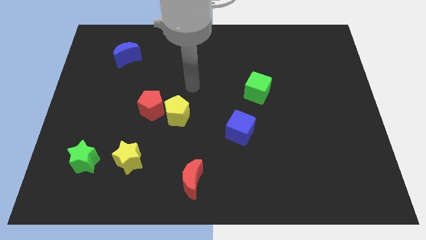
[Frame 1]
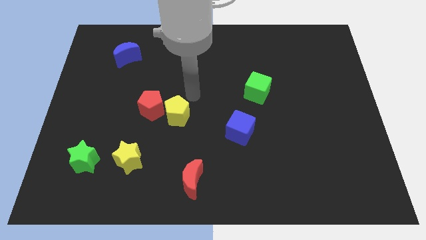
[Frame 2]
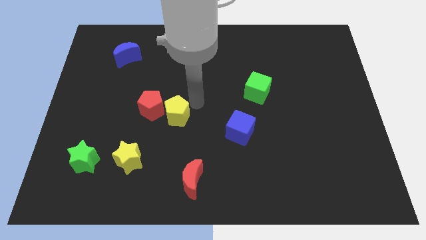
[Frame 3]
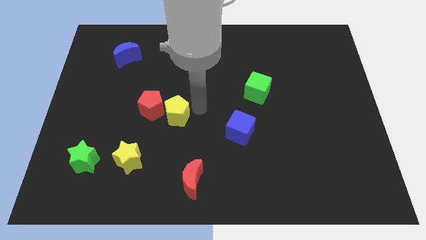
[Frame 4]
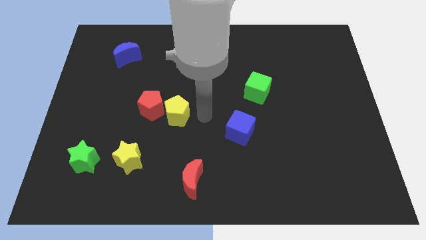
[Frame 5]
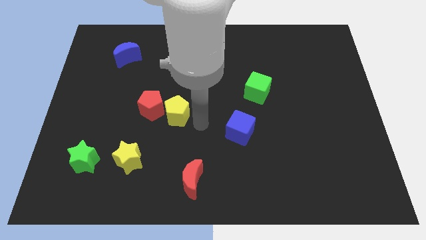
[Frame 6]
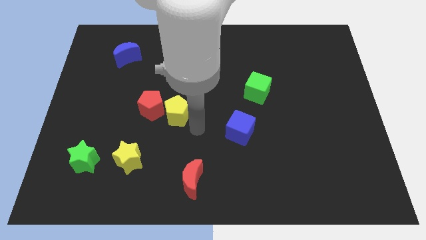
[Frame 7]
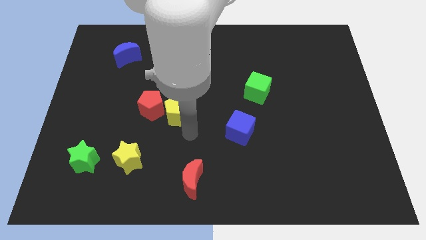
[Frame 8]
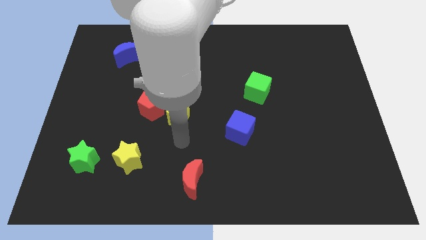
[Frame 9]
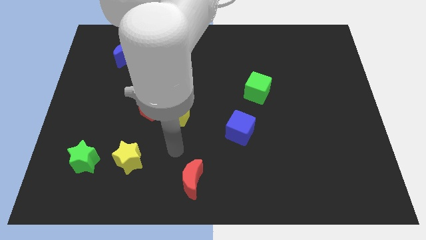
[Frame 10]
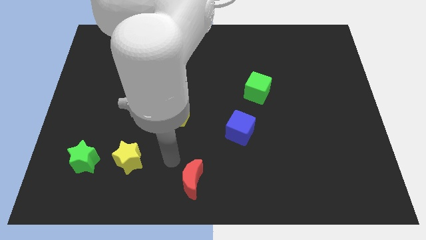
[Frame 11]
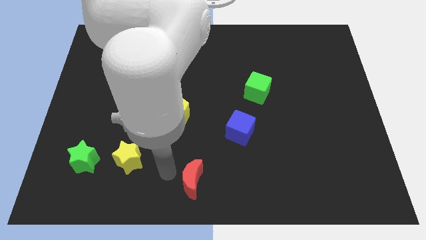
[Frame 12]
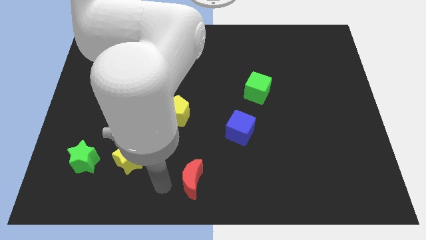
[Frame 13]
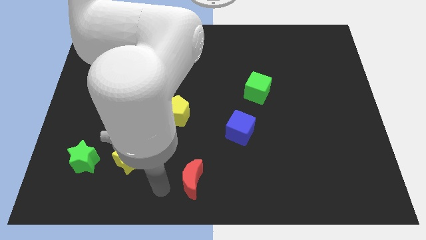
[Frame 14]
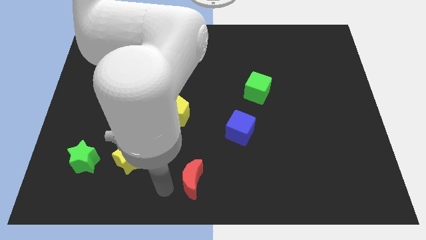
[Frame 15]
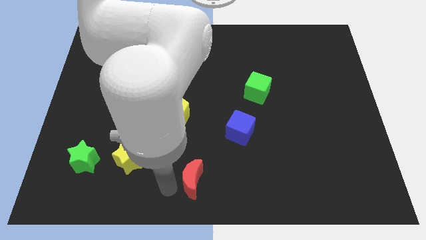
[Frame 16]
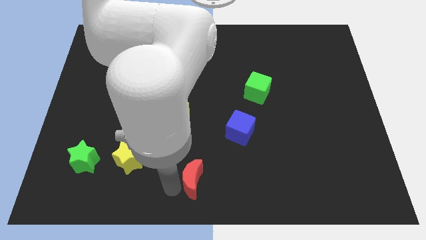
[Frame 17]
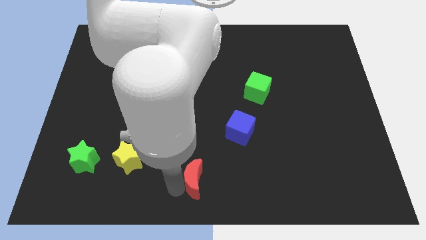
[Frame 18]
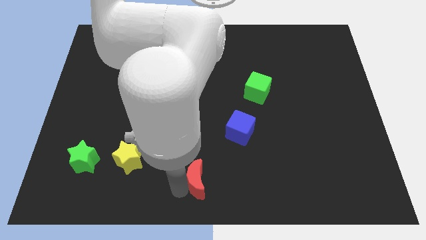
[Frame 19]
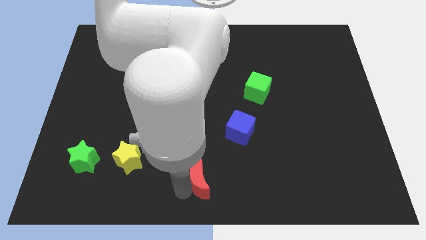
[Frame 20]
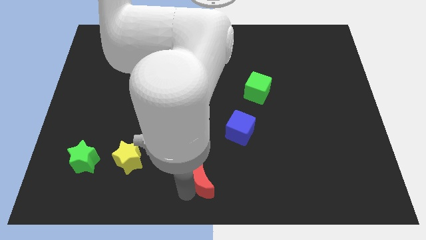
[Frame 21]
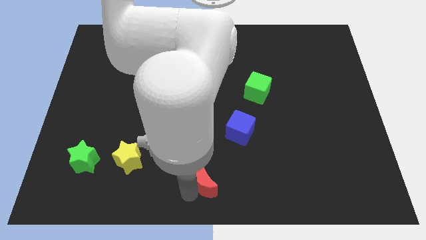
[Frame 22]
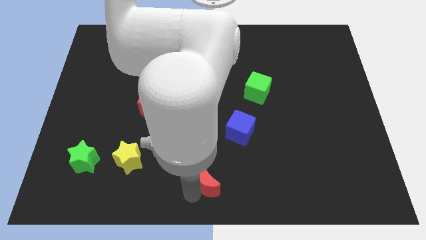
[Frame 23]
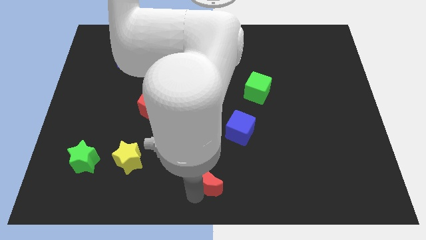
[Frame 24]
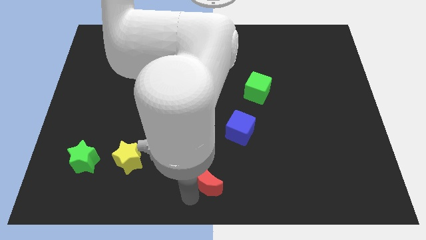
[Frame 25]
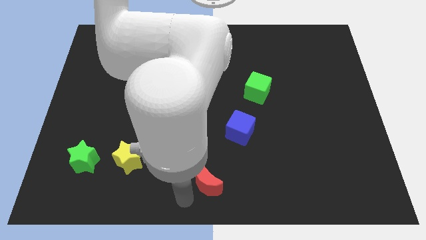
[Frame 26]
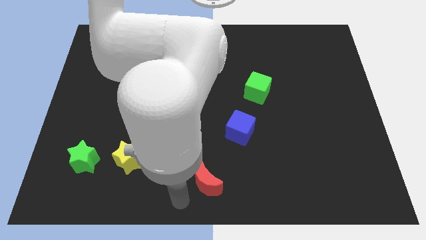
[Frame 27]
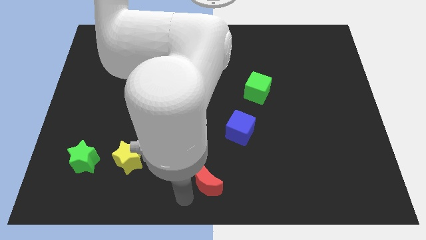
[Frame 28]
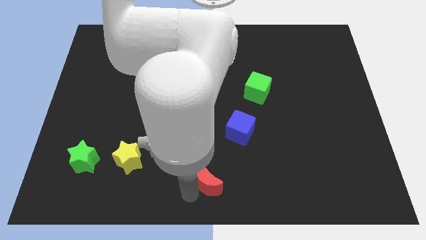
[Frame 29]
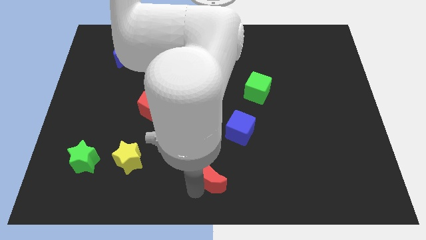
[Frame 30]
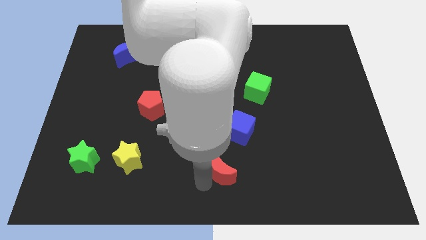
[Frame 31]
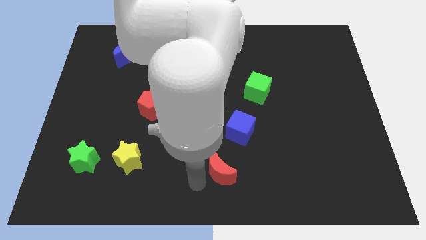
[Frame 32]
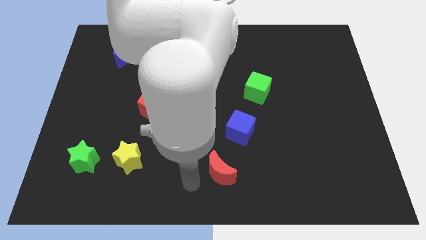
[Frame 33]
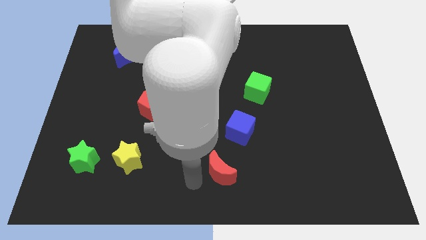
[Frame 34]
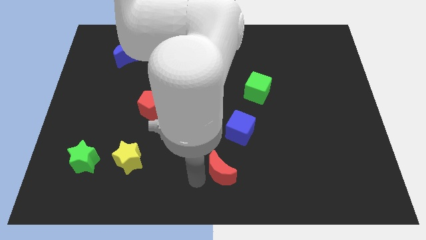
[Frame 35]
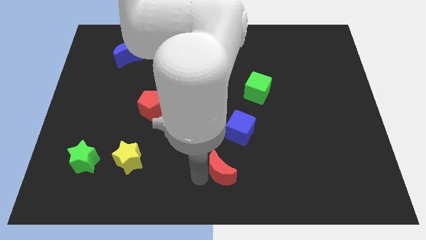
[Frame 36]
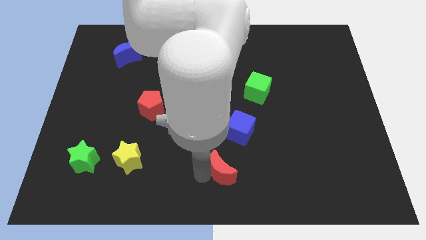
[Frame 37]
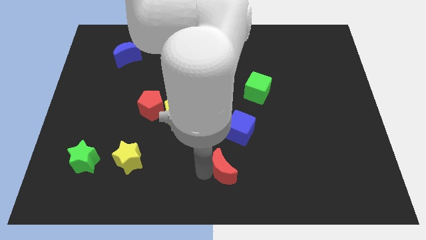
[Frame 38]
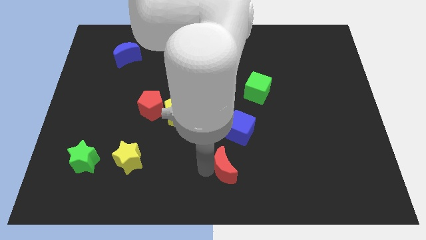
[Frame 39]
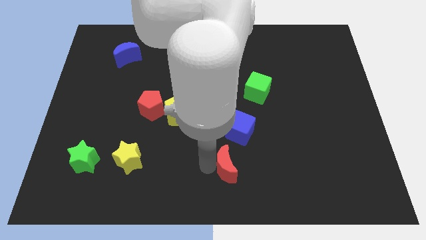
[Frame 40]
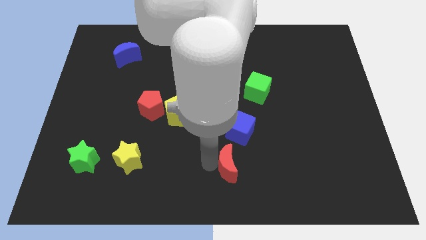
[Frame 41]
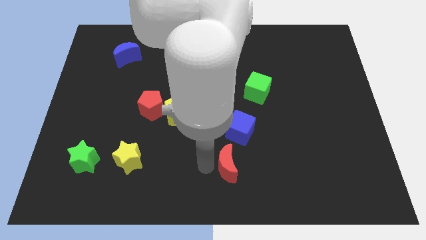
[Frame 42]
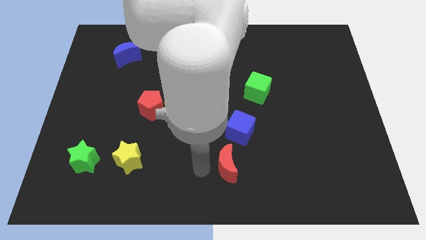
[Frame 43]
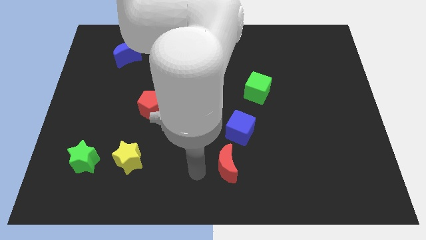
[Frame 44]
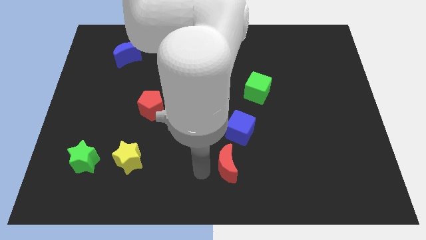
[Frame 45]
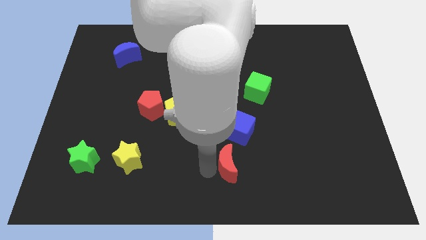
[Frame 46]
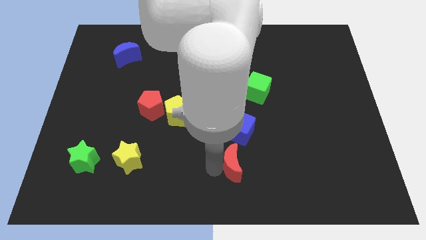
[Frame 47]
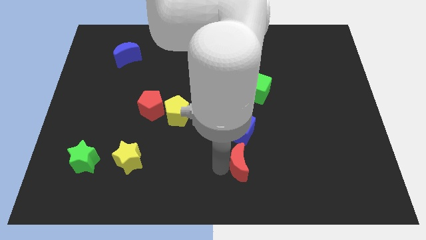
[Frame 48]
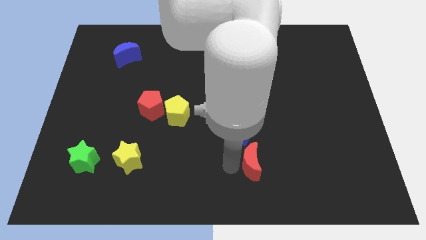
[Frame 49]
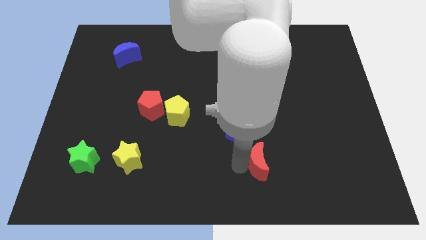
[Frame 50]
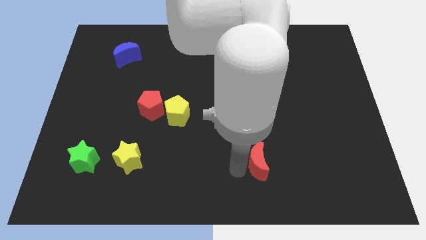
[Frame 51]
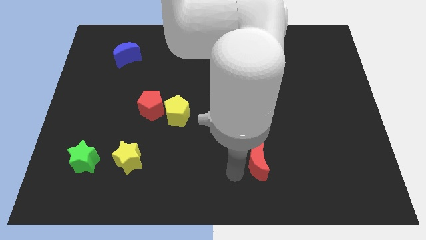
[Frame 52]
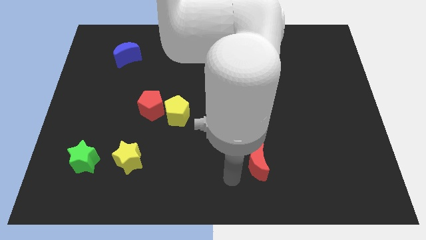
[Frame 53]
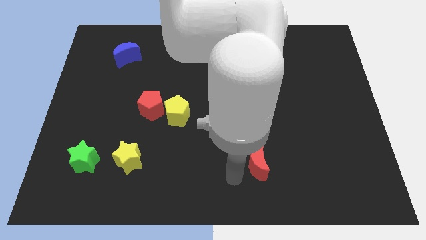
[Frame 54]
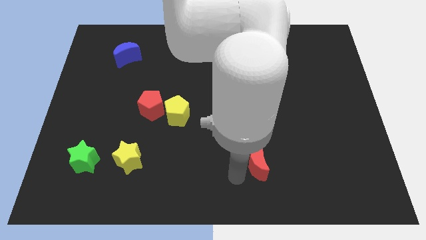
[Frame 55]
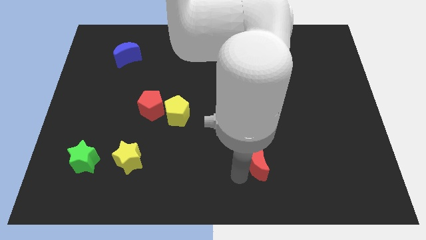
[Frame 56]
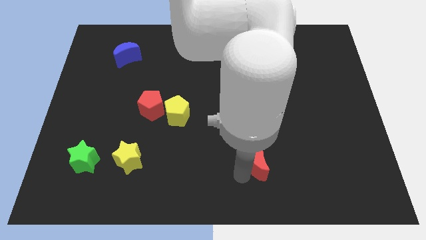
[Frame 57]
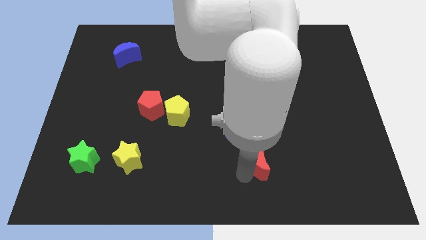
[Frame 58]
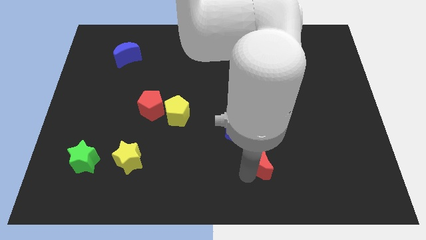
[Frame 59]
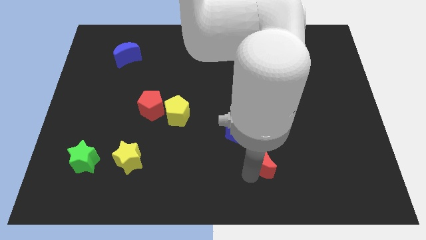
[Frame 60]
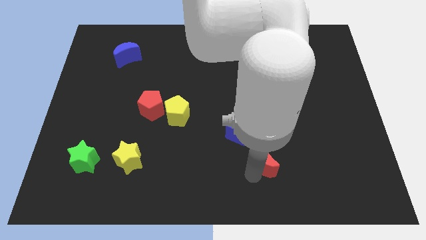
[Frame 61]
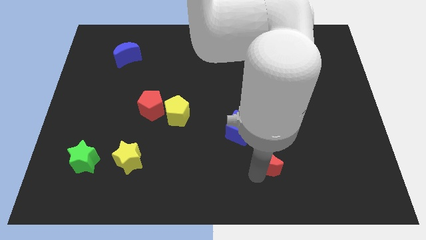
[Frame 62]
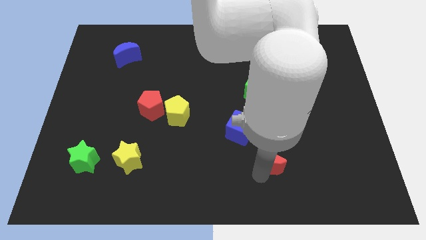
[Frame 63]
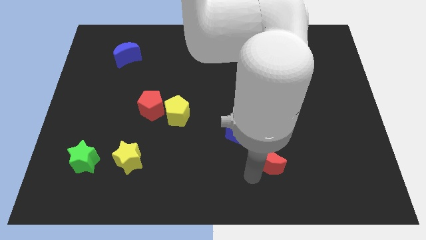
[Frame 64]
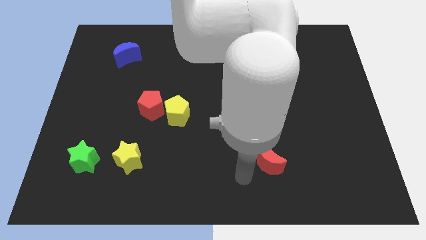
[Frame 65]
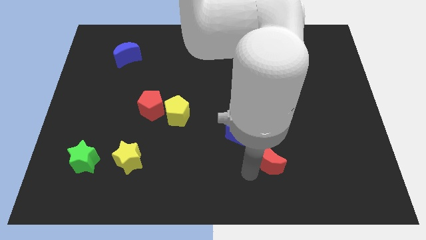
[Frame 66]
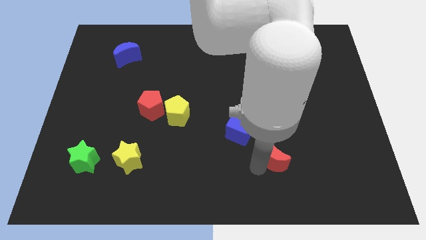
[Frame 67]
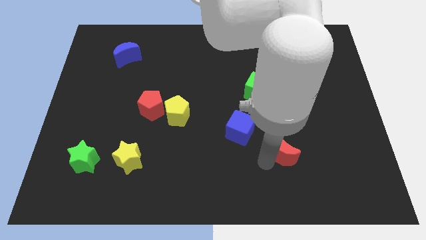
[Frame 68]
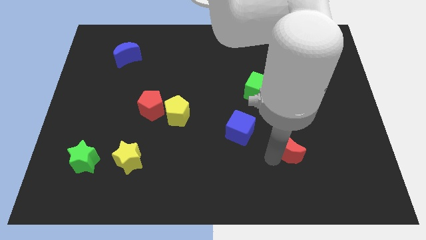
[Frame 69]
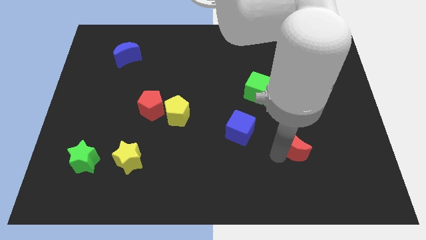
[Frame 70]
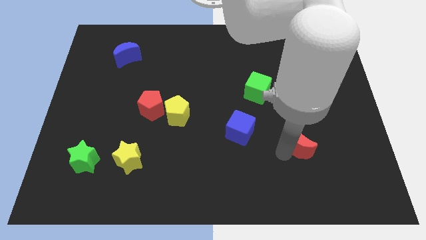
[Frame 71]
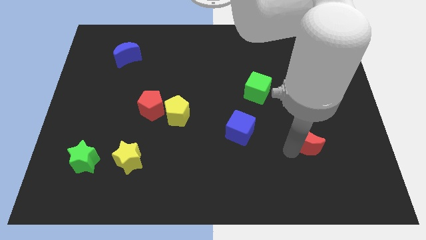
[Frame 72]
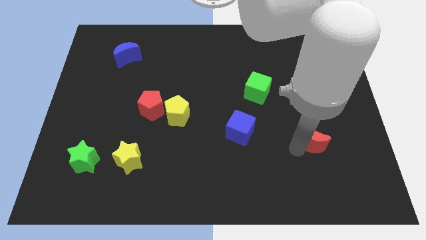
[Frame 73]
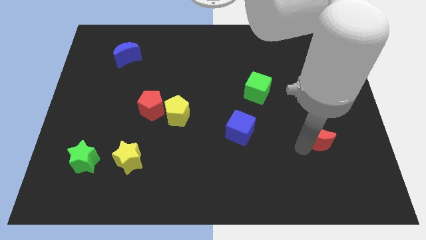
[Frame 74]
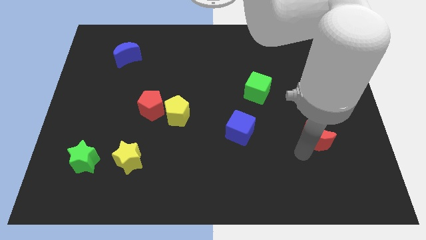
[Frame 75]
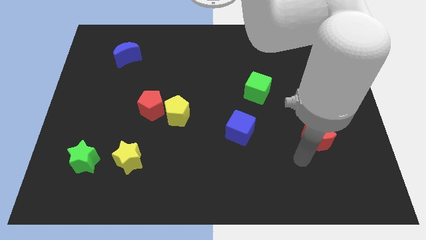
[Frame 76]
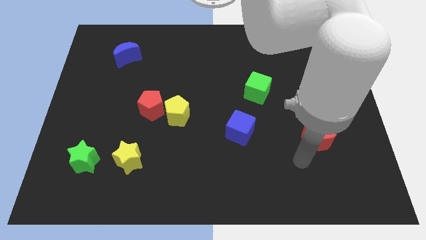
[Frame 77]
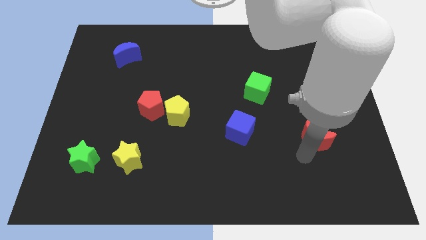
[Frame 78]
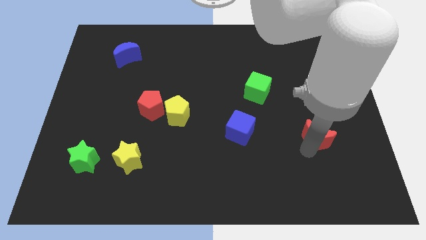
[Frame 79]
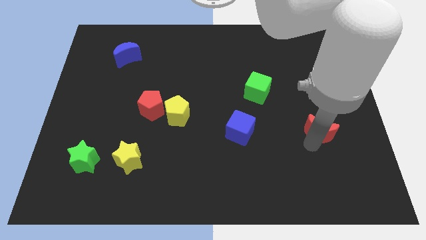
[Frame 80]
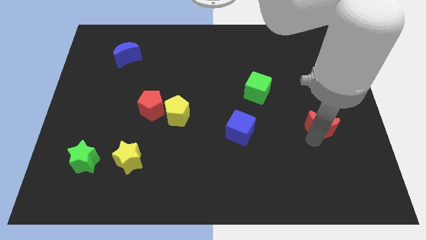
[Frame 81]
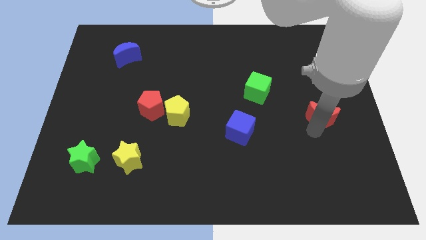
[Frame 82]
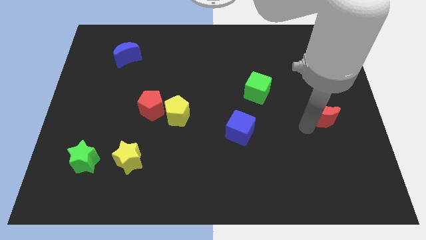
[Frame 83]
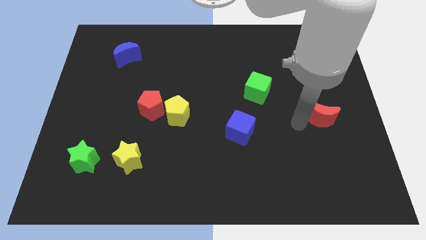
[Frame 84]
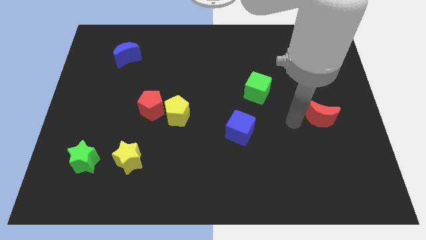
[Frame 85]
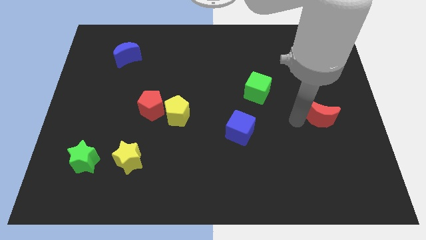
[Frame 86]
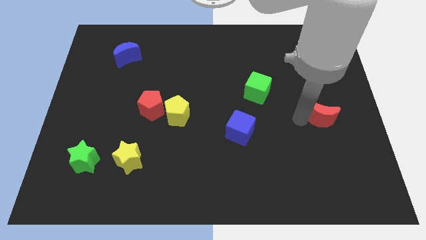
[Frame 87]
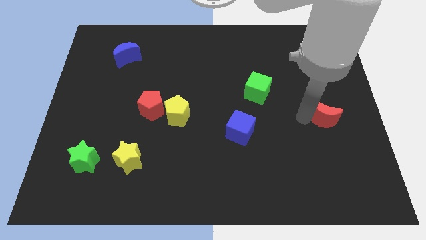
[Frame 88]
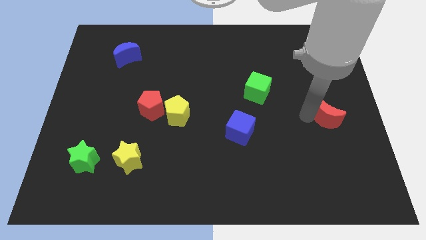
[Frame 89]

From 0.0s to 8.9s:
move the red moon to the right side
